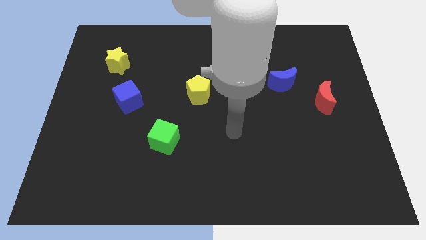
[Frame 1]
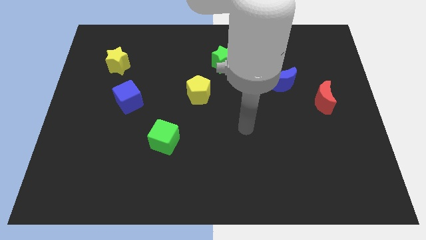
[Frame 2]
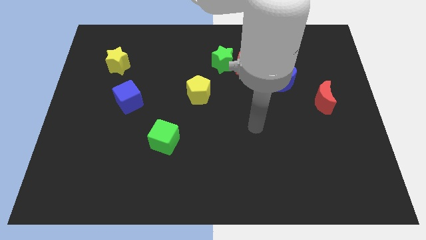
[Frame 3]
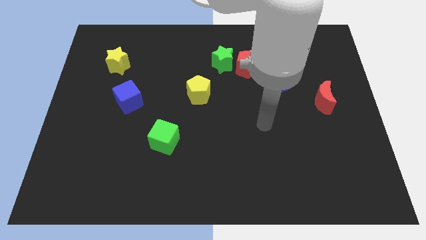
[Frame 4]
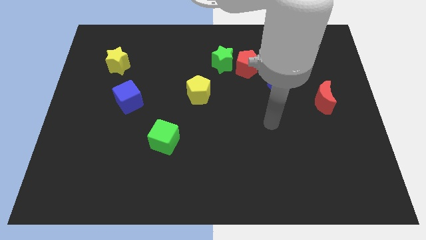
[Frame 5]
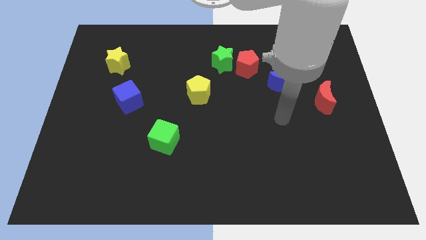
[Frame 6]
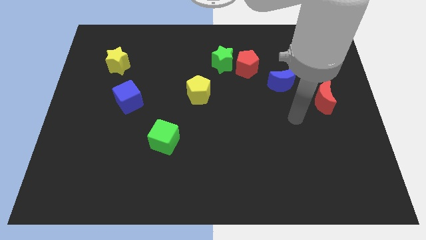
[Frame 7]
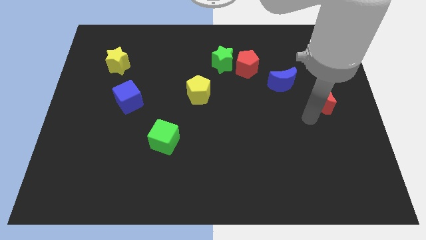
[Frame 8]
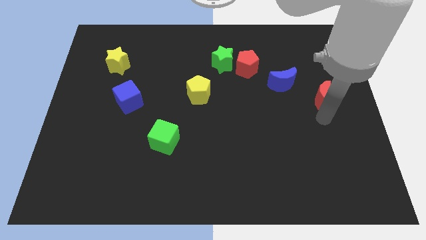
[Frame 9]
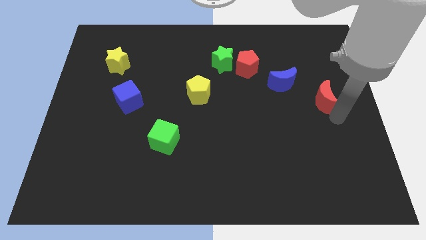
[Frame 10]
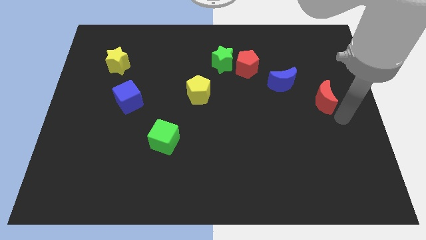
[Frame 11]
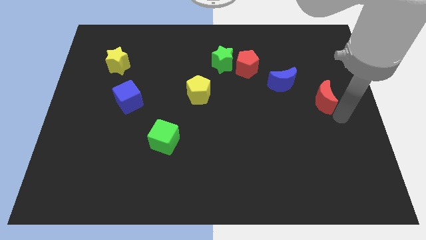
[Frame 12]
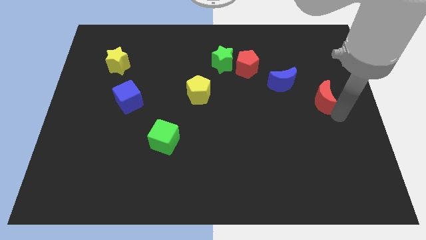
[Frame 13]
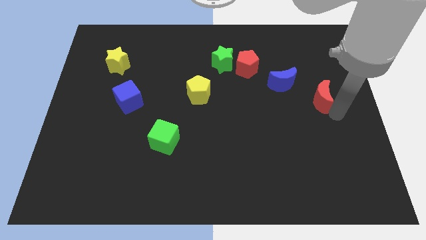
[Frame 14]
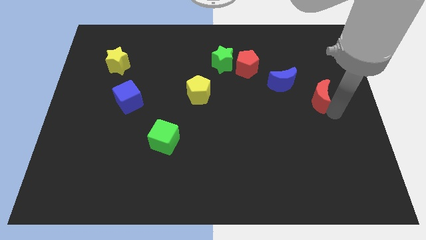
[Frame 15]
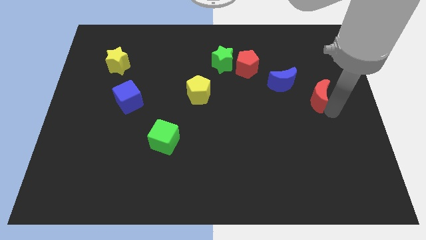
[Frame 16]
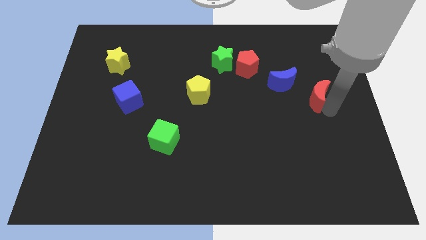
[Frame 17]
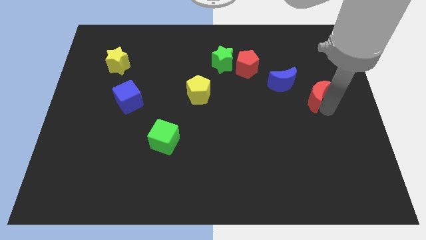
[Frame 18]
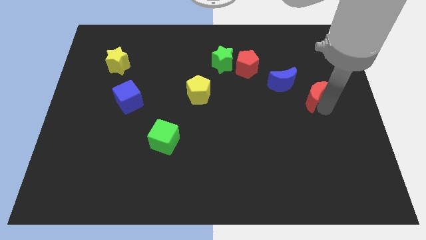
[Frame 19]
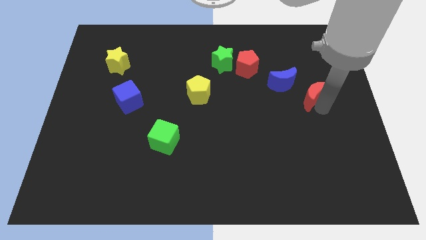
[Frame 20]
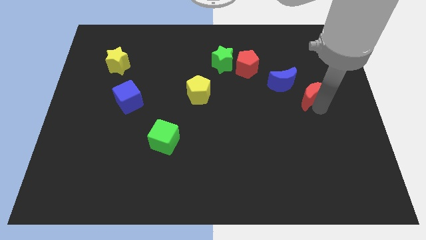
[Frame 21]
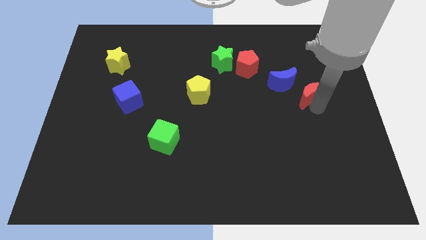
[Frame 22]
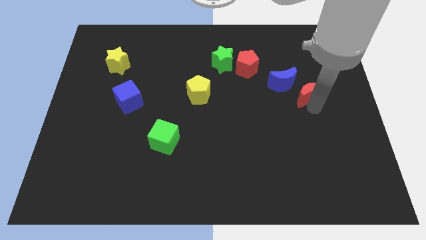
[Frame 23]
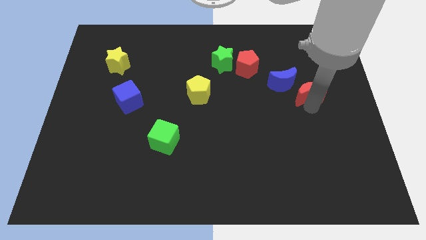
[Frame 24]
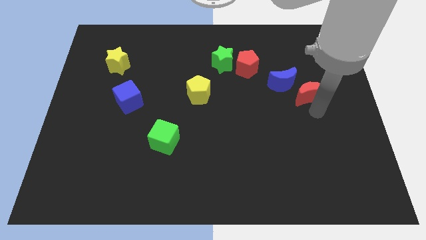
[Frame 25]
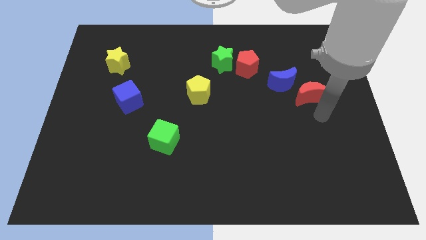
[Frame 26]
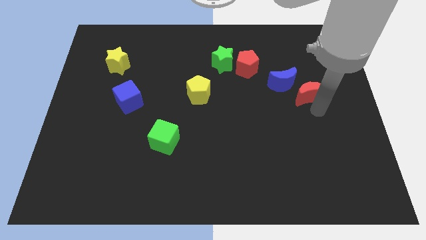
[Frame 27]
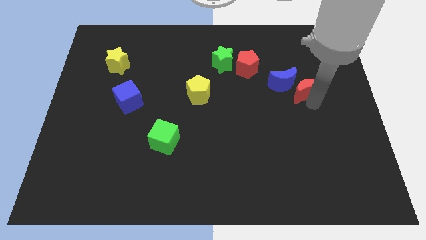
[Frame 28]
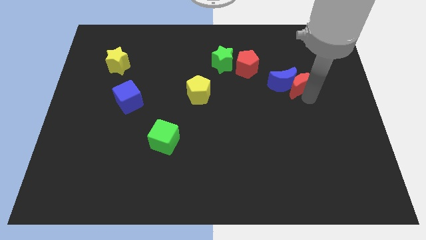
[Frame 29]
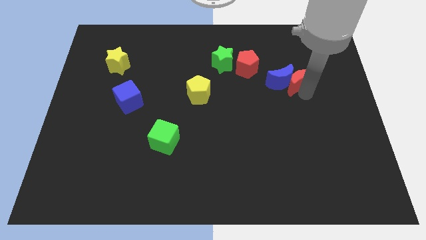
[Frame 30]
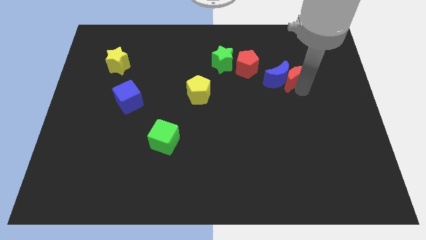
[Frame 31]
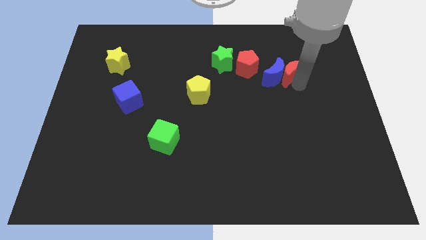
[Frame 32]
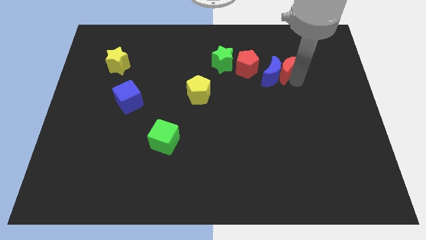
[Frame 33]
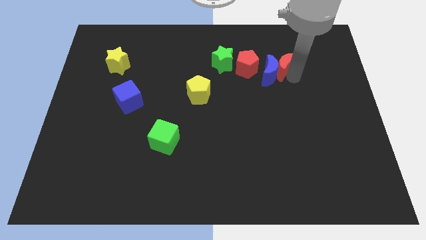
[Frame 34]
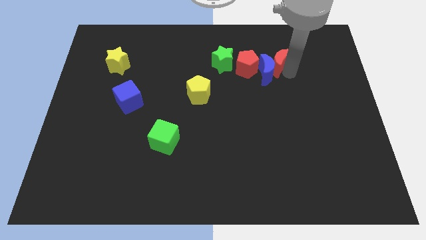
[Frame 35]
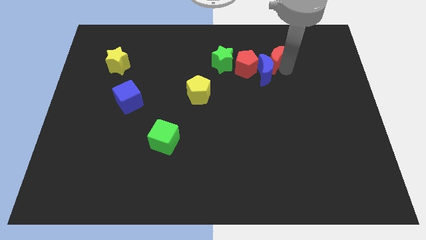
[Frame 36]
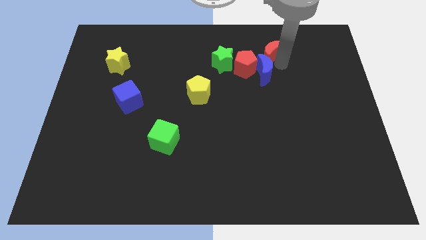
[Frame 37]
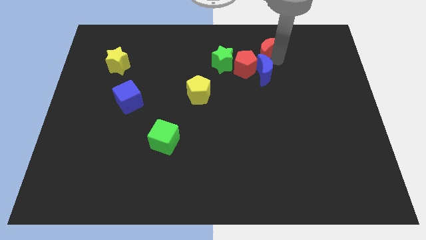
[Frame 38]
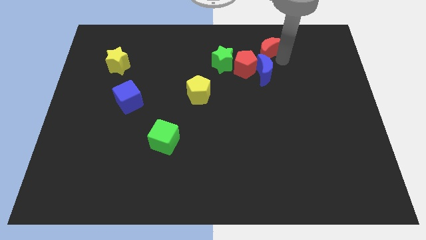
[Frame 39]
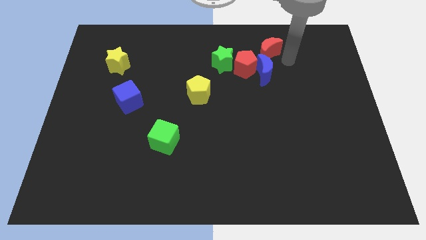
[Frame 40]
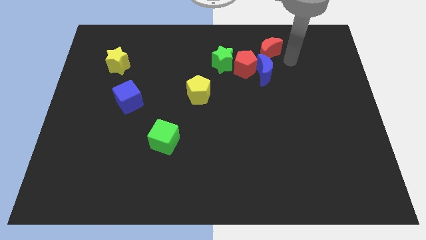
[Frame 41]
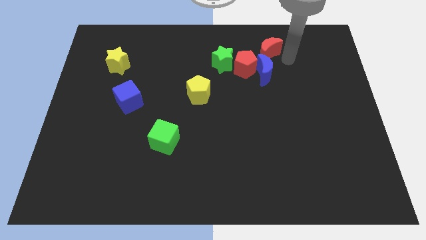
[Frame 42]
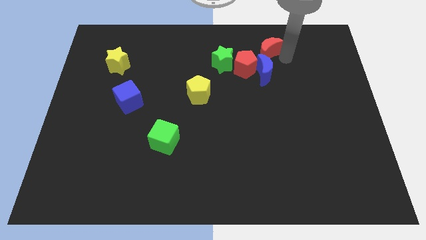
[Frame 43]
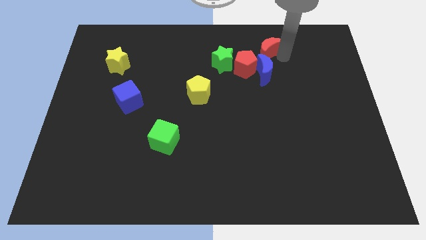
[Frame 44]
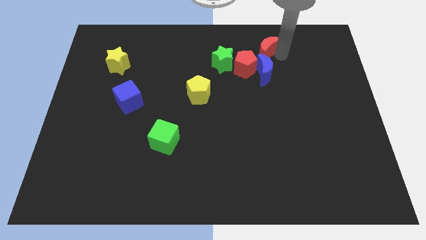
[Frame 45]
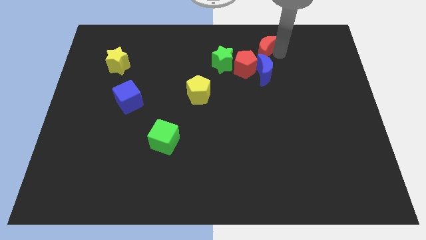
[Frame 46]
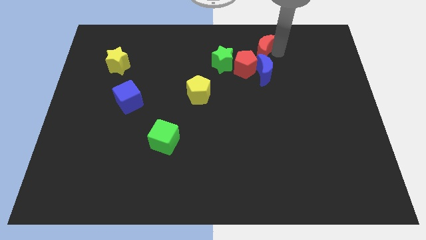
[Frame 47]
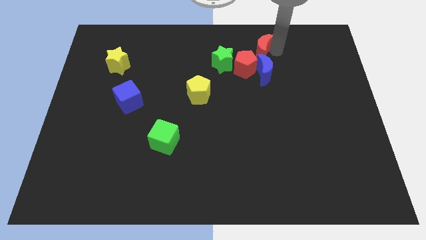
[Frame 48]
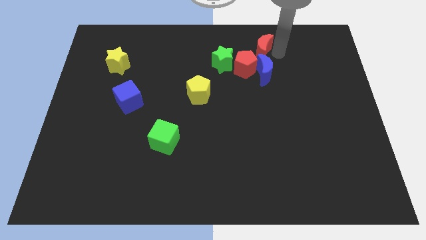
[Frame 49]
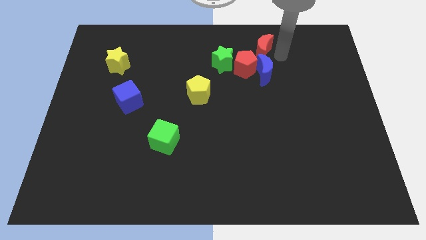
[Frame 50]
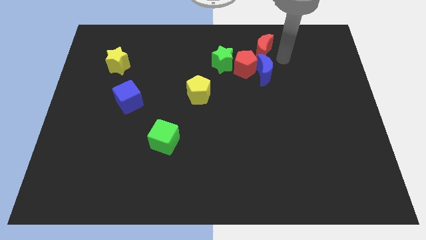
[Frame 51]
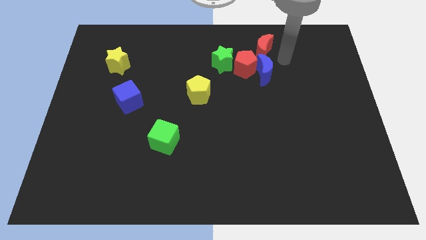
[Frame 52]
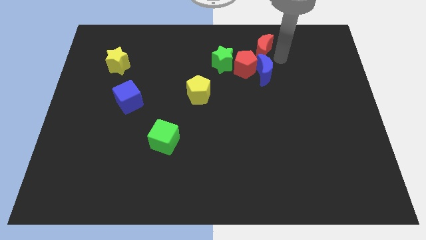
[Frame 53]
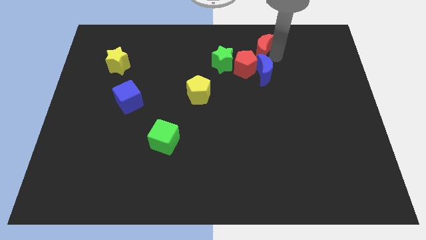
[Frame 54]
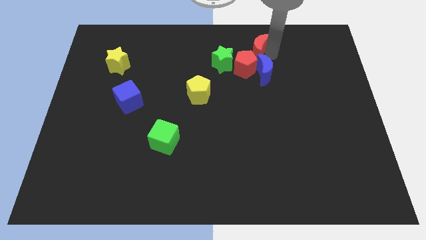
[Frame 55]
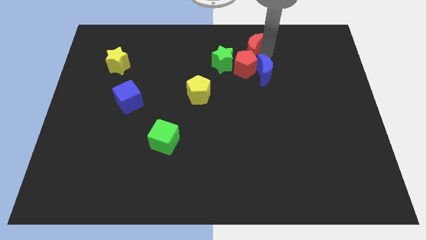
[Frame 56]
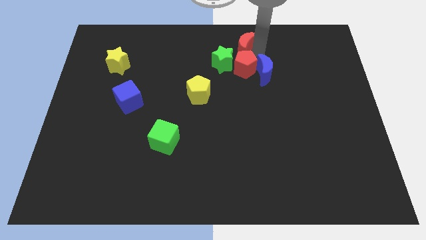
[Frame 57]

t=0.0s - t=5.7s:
slide the red moon to the top

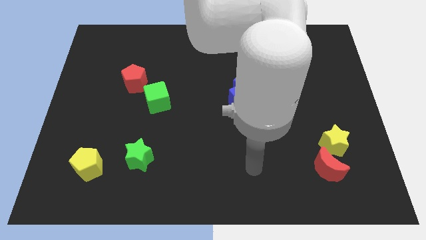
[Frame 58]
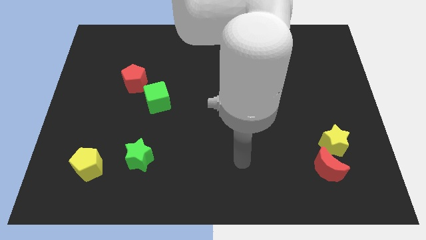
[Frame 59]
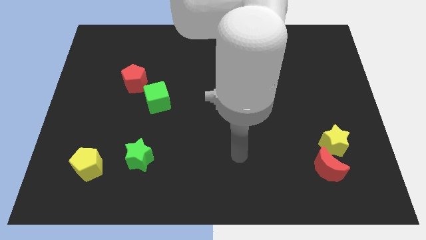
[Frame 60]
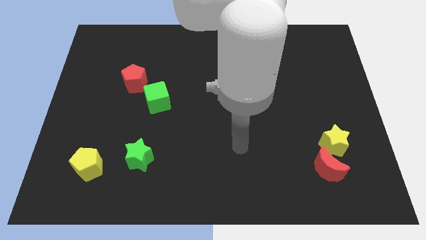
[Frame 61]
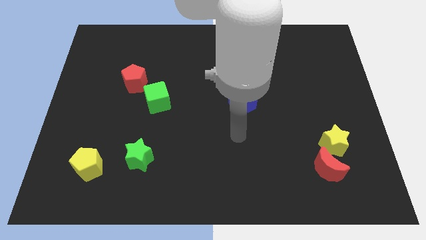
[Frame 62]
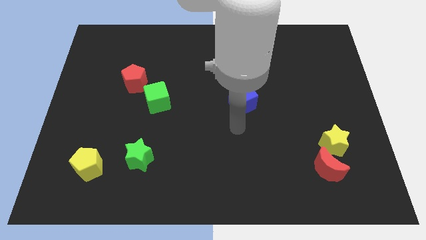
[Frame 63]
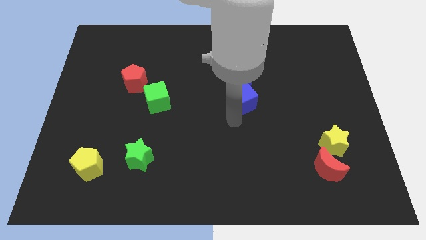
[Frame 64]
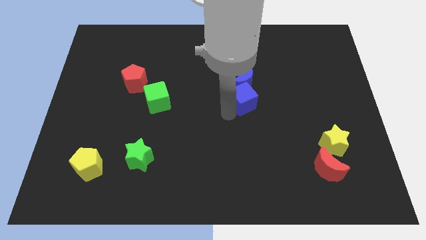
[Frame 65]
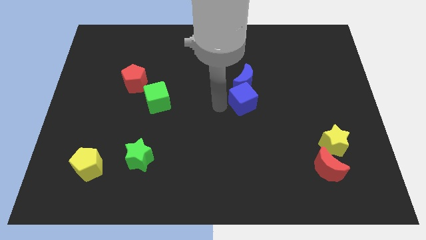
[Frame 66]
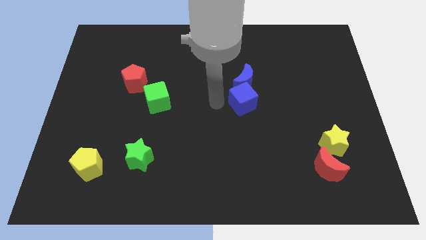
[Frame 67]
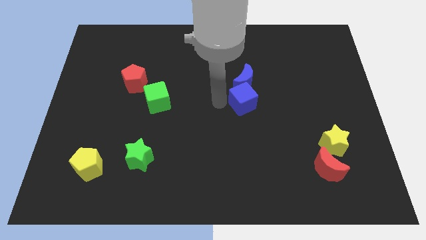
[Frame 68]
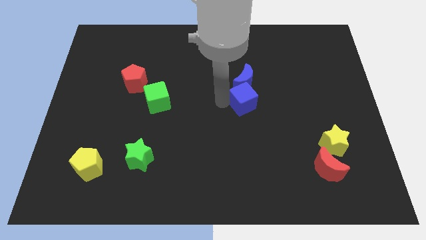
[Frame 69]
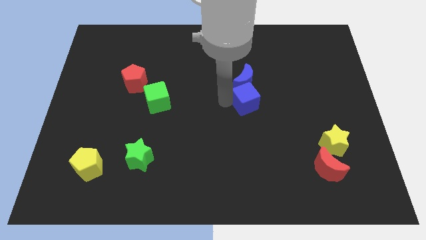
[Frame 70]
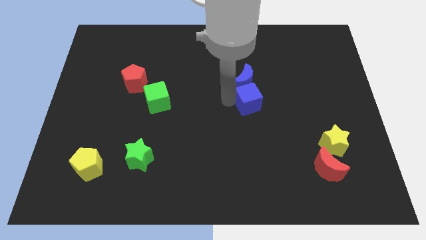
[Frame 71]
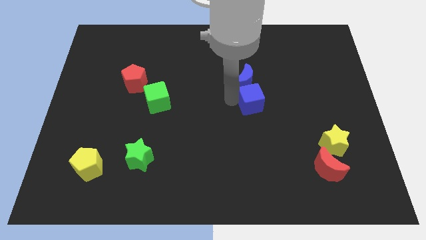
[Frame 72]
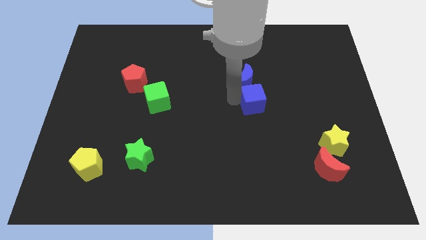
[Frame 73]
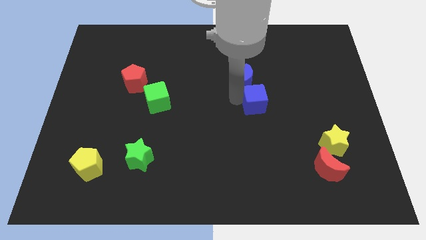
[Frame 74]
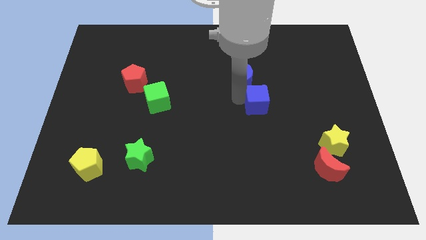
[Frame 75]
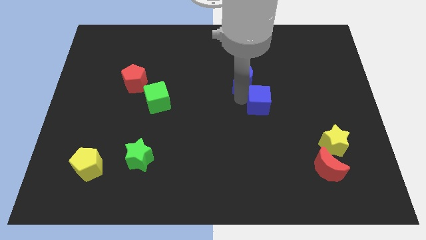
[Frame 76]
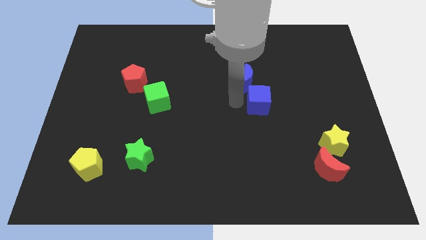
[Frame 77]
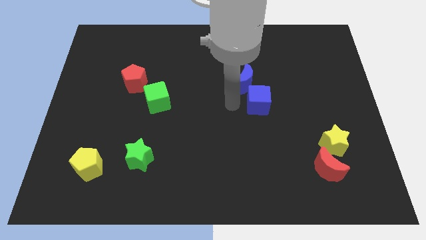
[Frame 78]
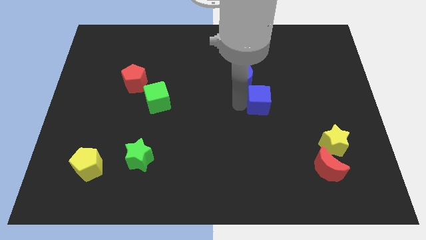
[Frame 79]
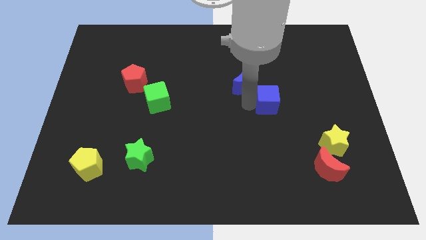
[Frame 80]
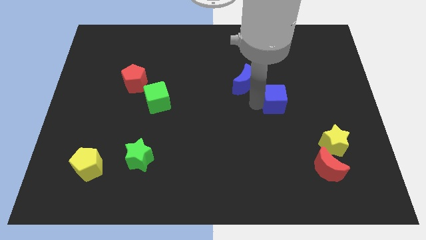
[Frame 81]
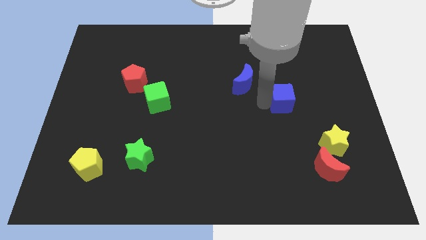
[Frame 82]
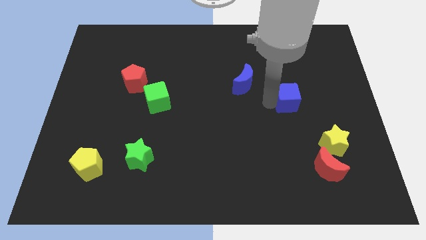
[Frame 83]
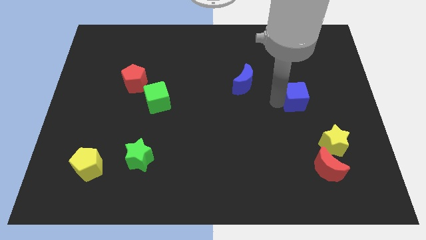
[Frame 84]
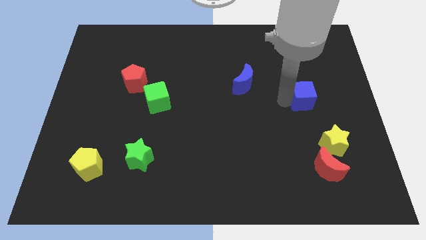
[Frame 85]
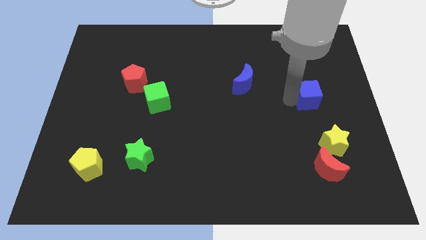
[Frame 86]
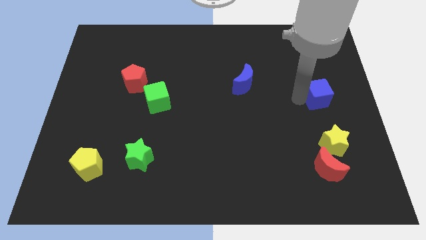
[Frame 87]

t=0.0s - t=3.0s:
move the blue cube to the right side
